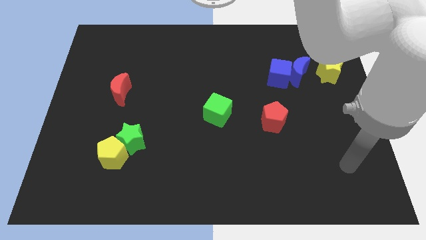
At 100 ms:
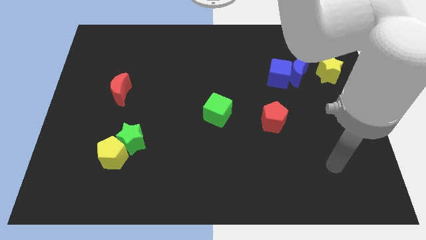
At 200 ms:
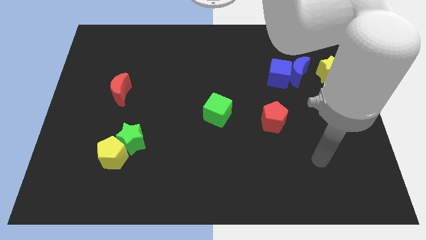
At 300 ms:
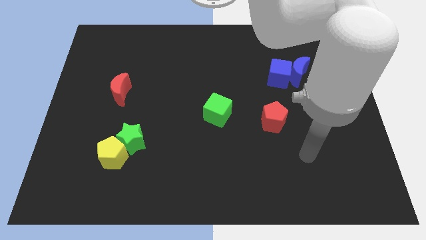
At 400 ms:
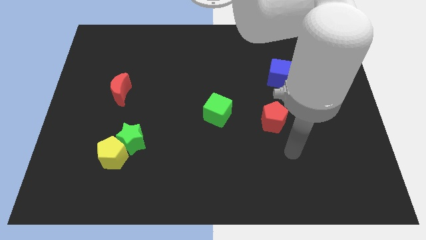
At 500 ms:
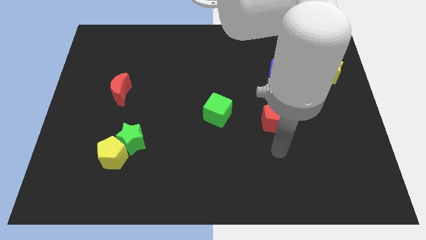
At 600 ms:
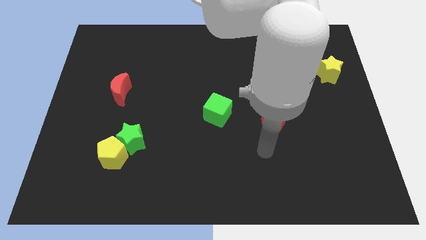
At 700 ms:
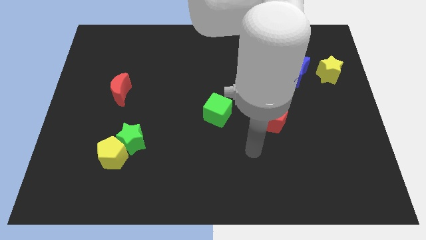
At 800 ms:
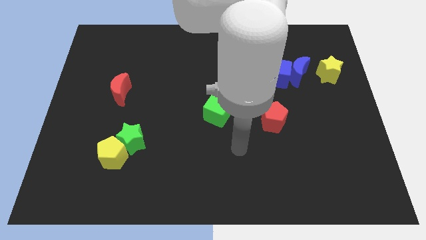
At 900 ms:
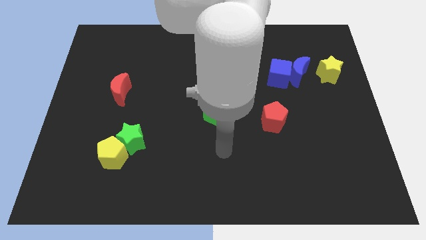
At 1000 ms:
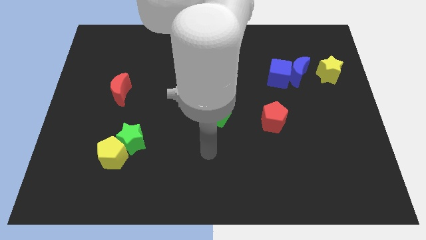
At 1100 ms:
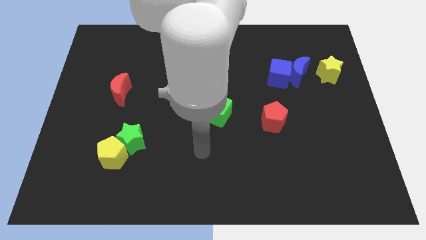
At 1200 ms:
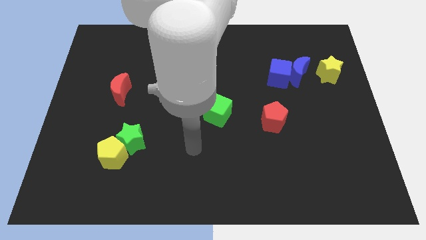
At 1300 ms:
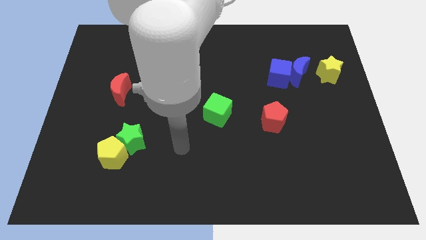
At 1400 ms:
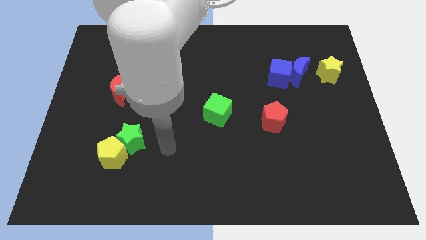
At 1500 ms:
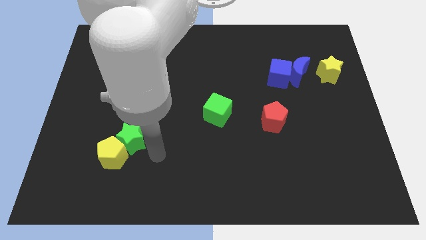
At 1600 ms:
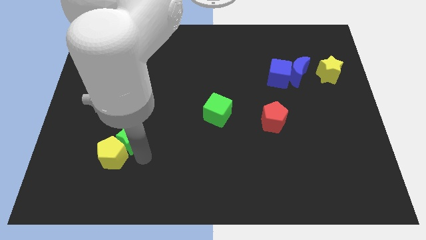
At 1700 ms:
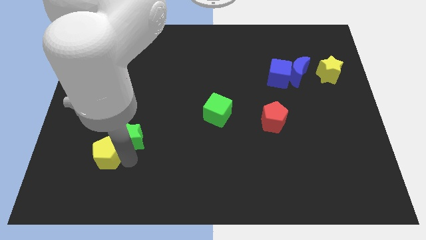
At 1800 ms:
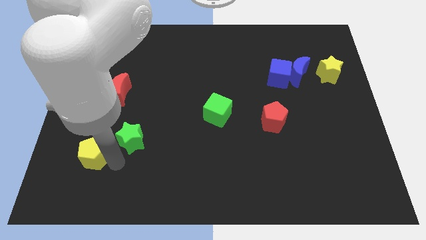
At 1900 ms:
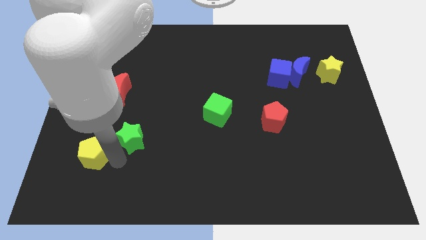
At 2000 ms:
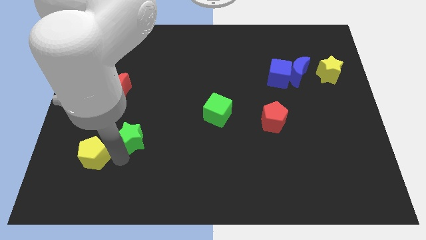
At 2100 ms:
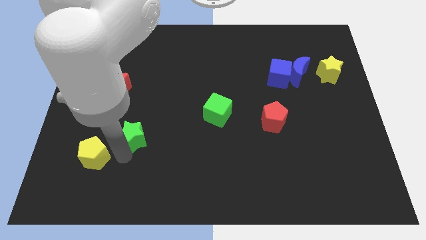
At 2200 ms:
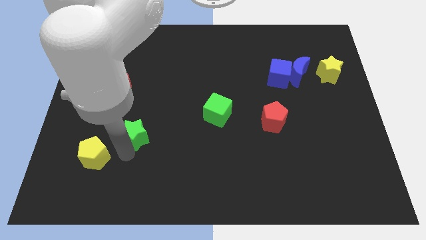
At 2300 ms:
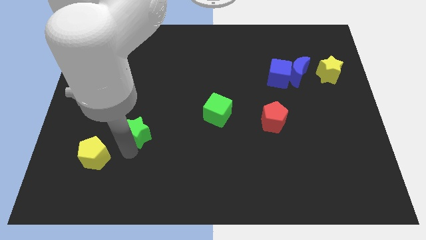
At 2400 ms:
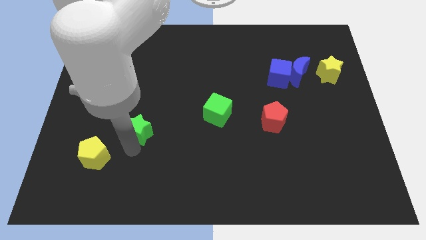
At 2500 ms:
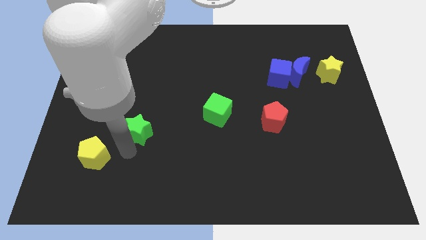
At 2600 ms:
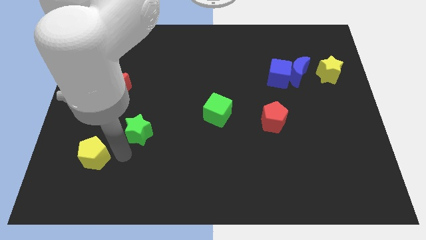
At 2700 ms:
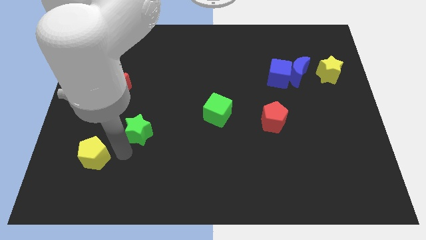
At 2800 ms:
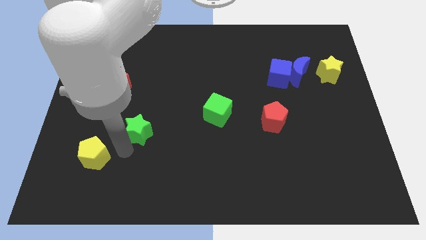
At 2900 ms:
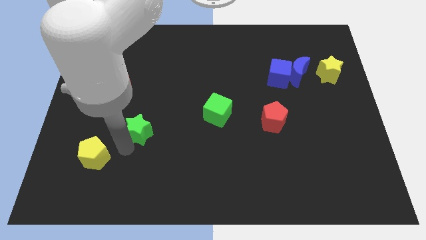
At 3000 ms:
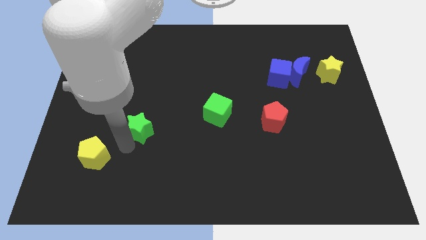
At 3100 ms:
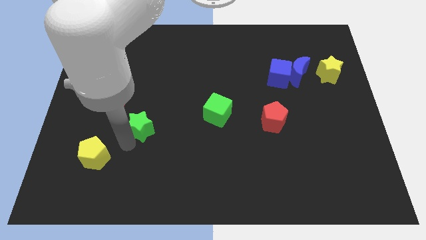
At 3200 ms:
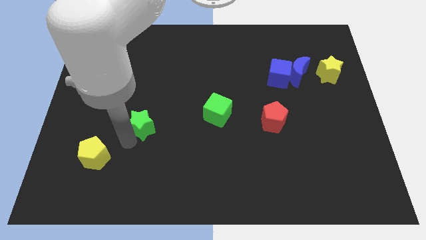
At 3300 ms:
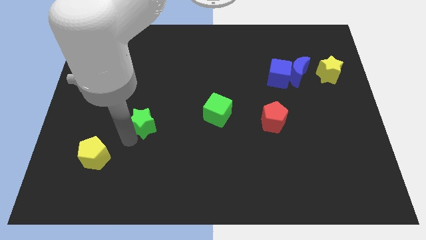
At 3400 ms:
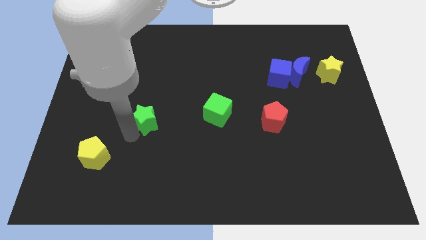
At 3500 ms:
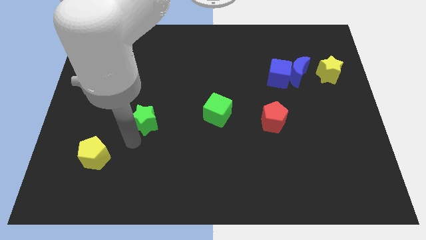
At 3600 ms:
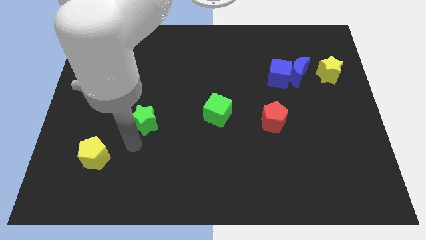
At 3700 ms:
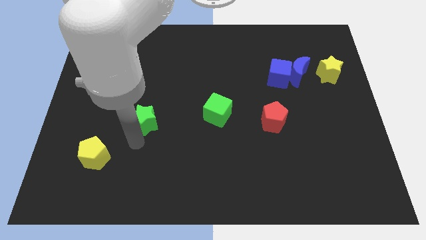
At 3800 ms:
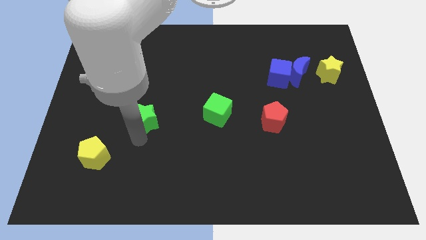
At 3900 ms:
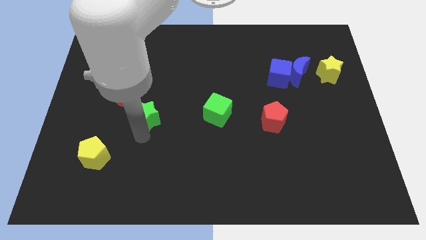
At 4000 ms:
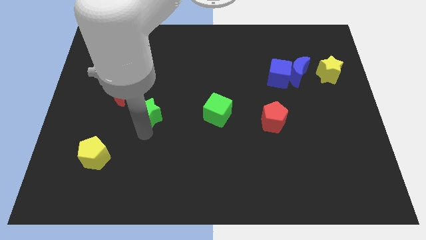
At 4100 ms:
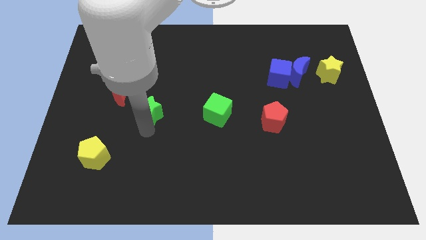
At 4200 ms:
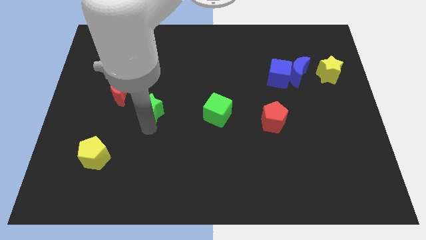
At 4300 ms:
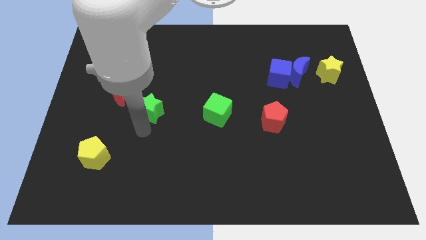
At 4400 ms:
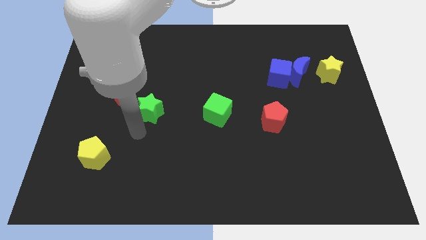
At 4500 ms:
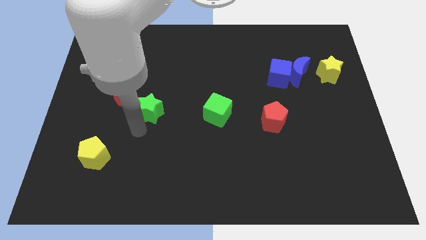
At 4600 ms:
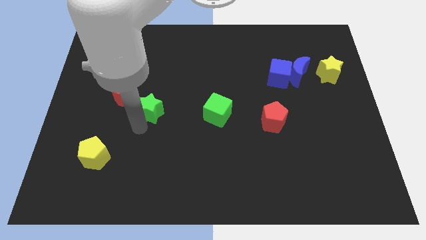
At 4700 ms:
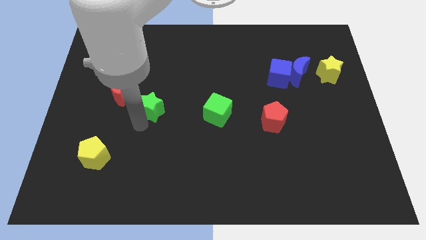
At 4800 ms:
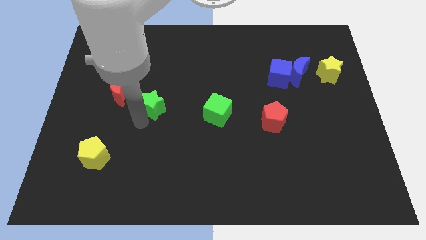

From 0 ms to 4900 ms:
push the green star to the right side of the red moon

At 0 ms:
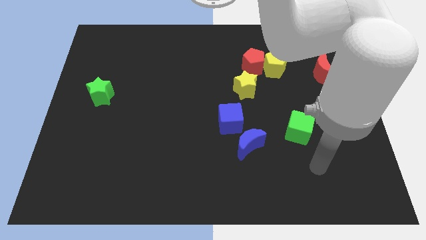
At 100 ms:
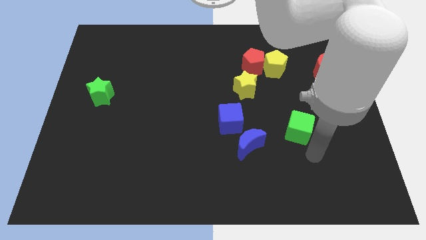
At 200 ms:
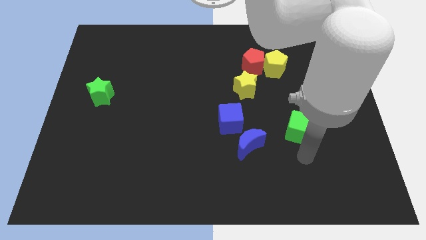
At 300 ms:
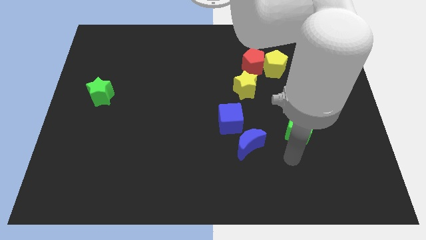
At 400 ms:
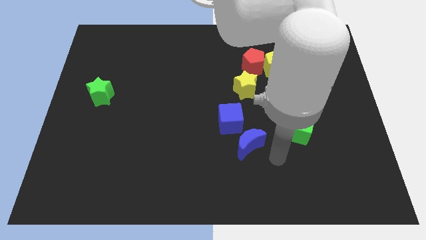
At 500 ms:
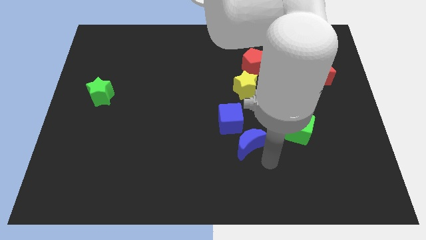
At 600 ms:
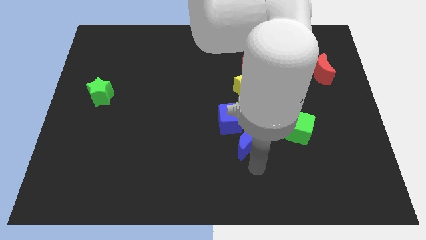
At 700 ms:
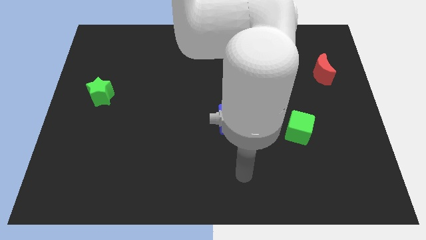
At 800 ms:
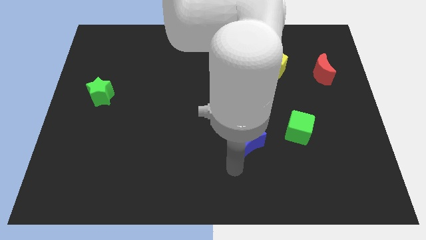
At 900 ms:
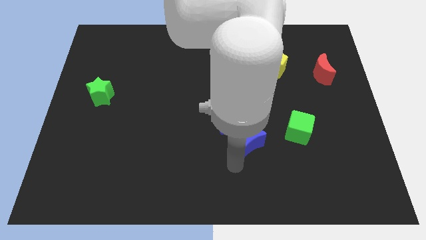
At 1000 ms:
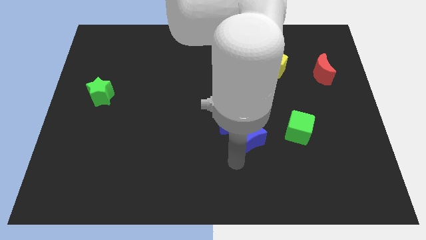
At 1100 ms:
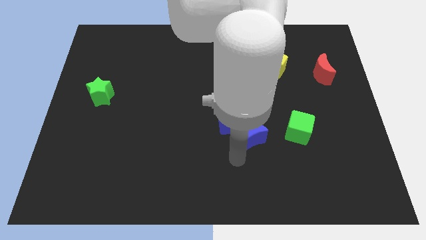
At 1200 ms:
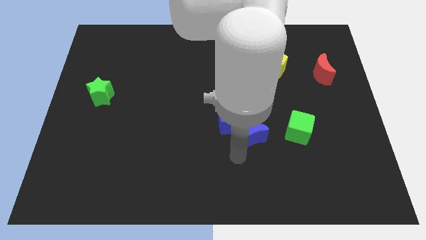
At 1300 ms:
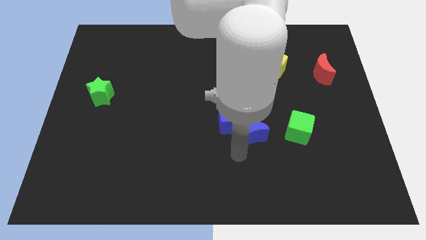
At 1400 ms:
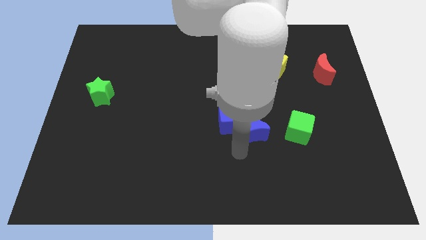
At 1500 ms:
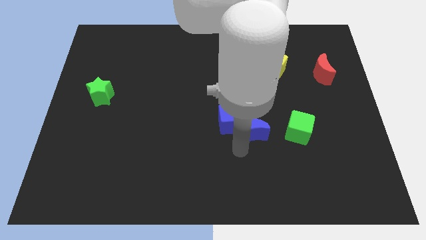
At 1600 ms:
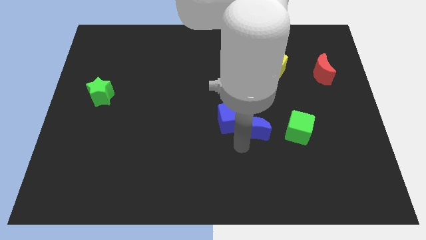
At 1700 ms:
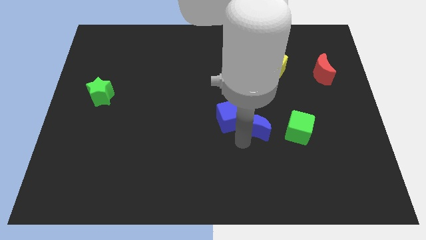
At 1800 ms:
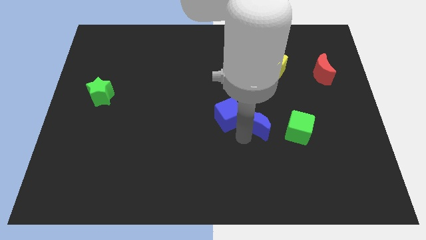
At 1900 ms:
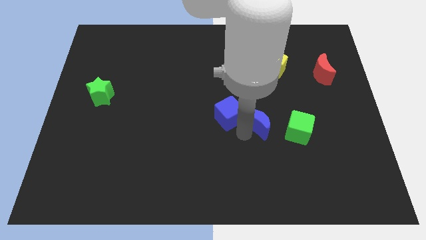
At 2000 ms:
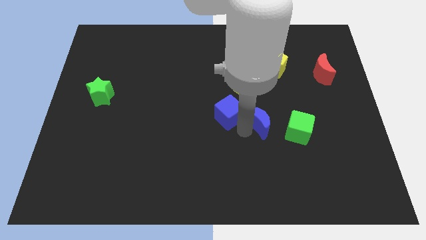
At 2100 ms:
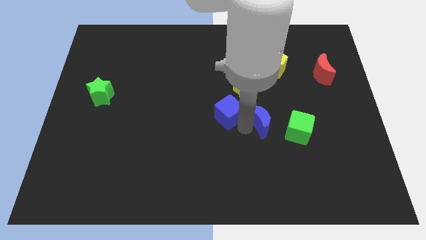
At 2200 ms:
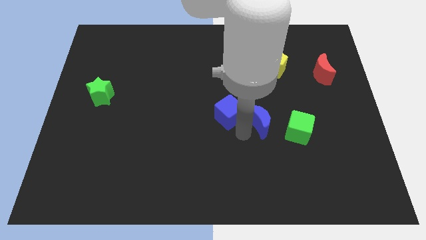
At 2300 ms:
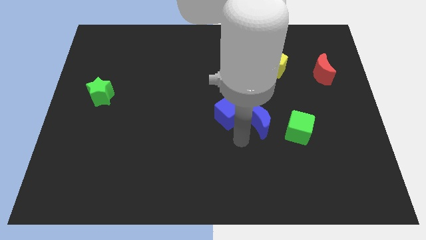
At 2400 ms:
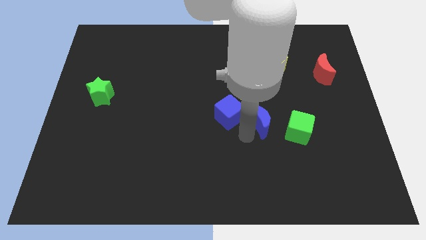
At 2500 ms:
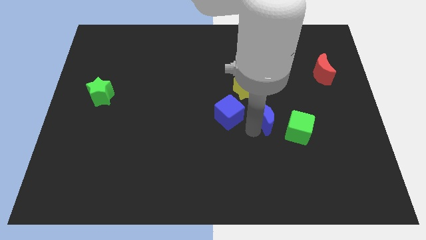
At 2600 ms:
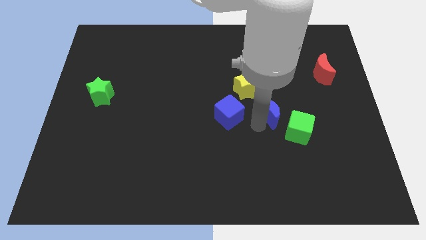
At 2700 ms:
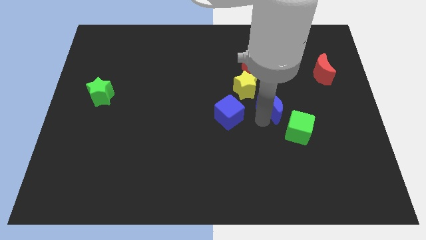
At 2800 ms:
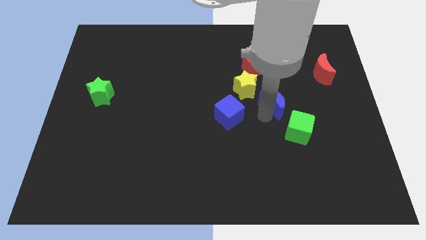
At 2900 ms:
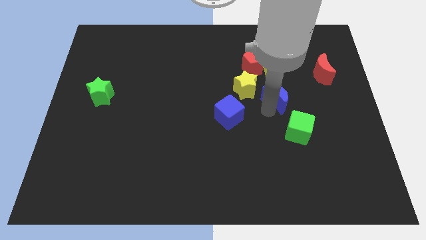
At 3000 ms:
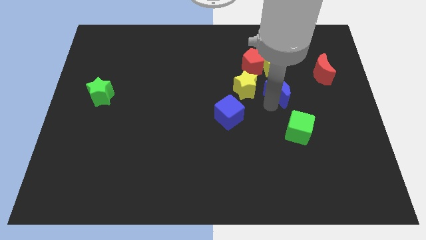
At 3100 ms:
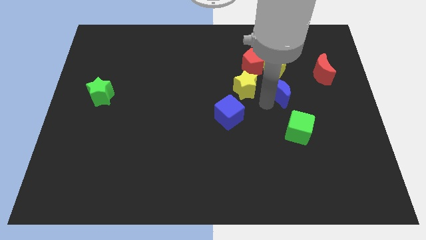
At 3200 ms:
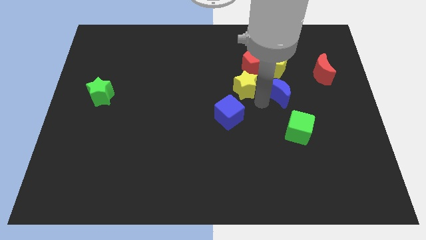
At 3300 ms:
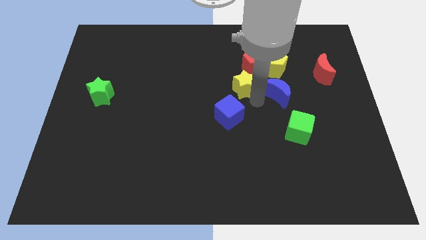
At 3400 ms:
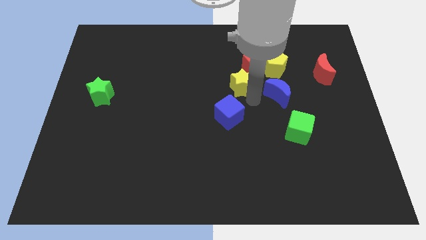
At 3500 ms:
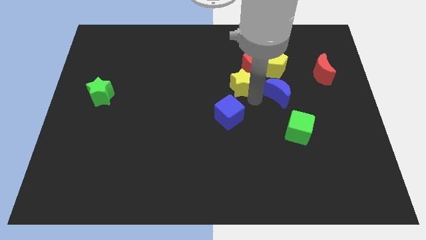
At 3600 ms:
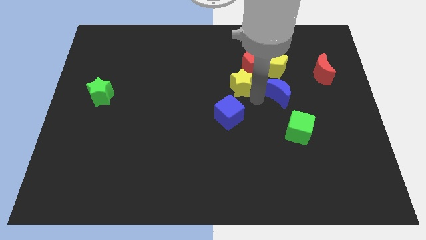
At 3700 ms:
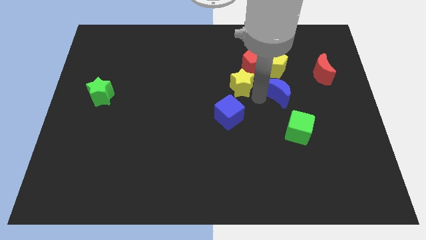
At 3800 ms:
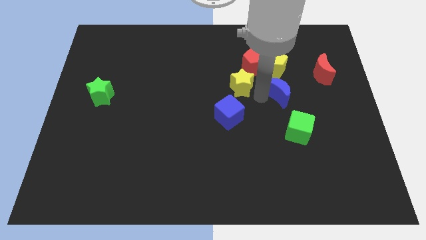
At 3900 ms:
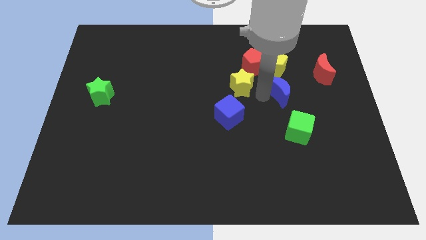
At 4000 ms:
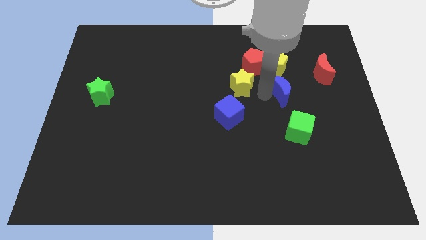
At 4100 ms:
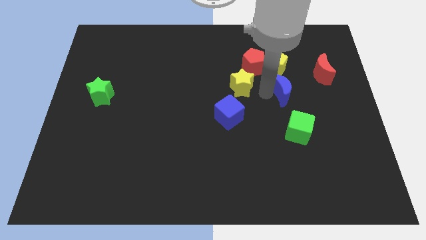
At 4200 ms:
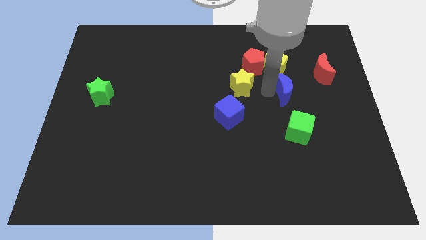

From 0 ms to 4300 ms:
put the blue moon diagonally down and to the right of the yellow pentagon
